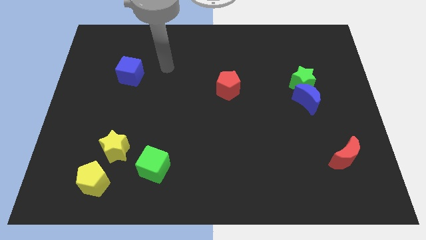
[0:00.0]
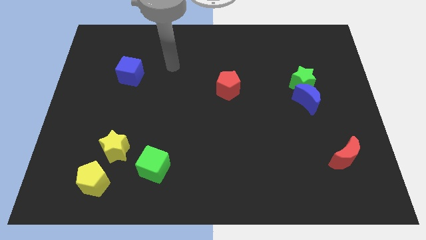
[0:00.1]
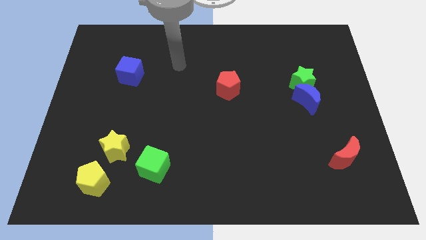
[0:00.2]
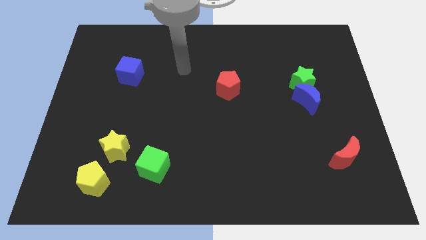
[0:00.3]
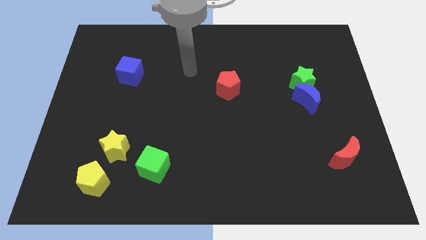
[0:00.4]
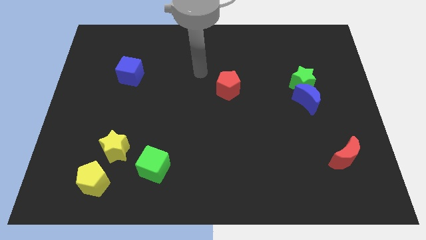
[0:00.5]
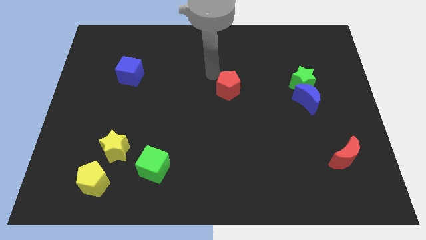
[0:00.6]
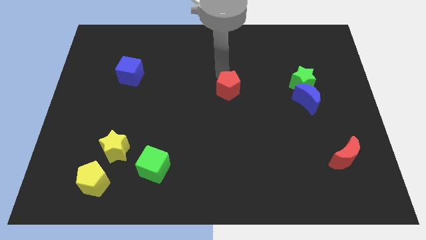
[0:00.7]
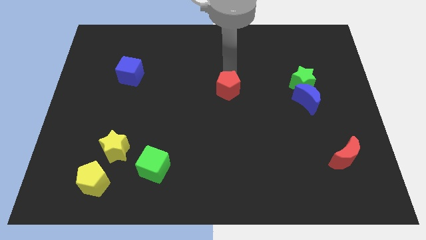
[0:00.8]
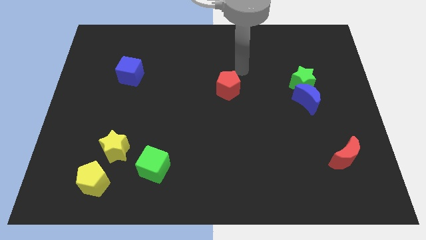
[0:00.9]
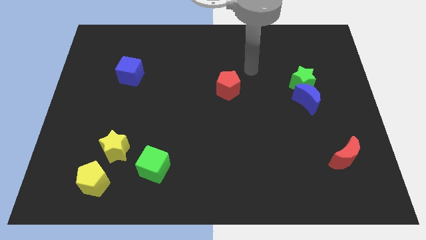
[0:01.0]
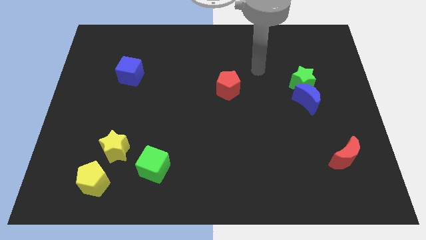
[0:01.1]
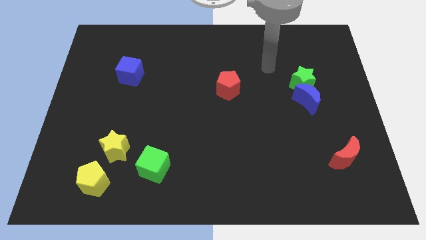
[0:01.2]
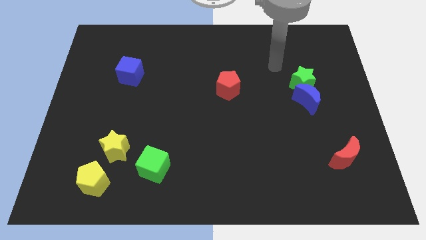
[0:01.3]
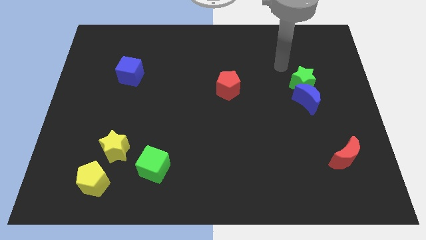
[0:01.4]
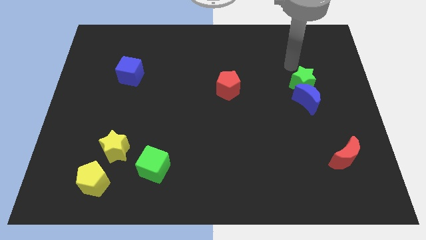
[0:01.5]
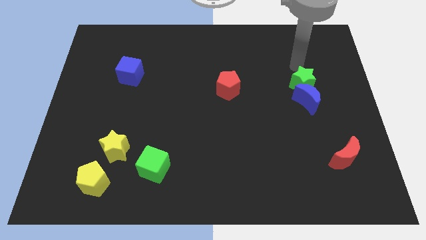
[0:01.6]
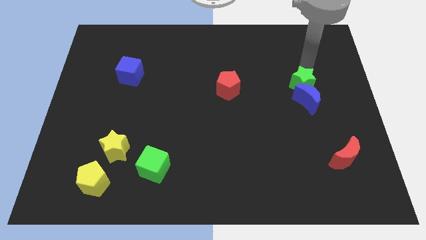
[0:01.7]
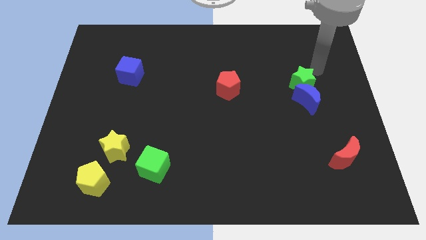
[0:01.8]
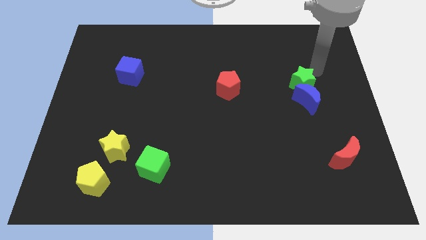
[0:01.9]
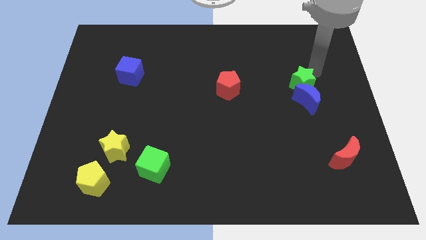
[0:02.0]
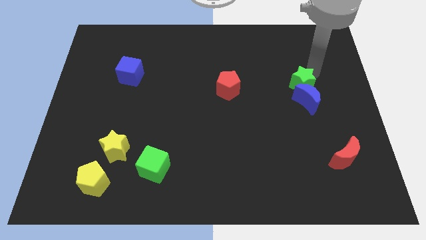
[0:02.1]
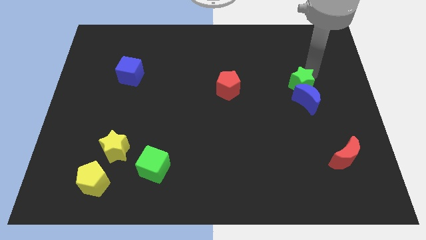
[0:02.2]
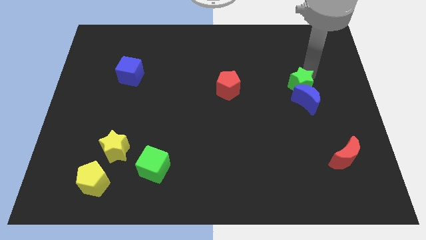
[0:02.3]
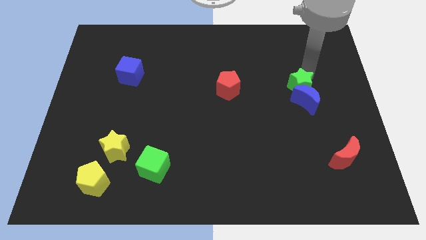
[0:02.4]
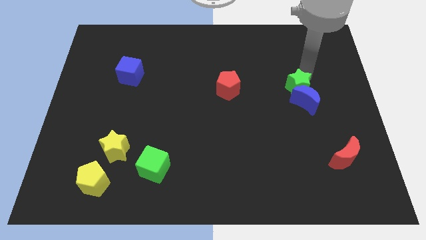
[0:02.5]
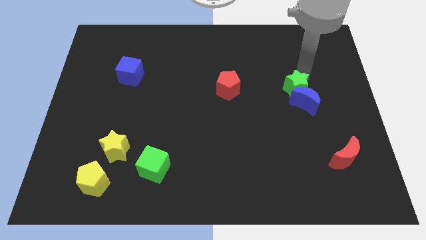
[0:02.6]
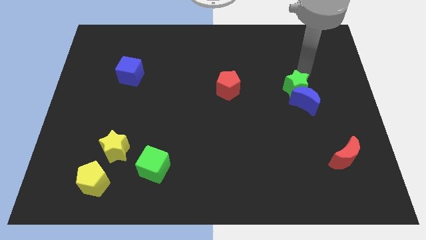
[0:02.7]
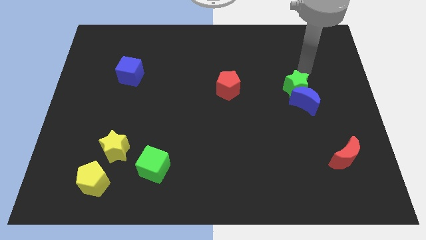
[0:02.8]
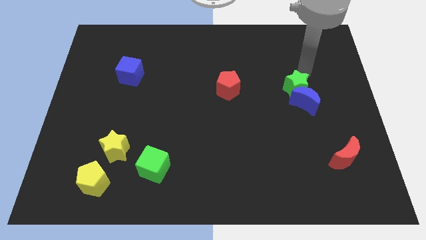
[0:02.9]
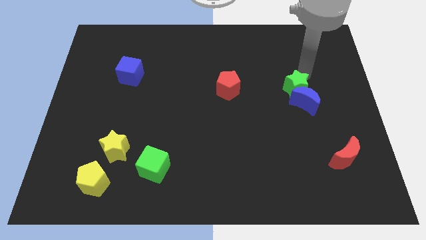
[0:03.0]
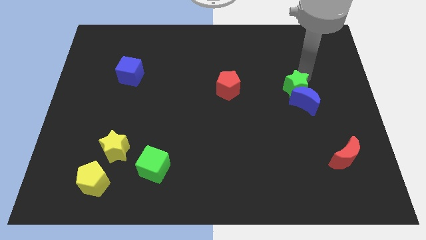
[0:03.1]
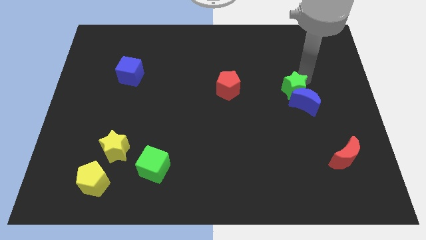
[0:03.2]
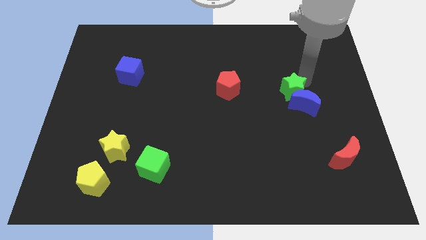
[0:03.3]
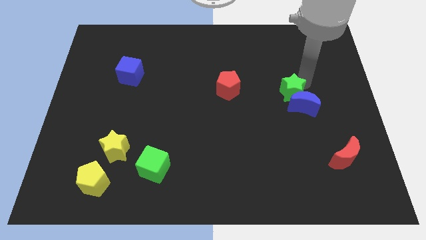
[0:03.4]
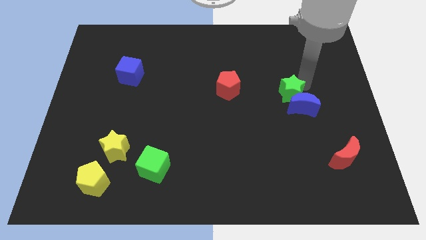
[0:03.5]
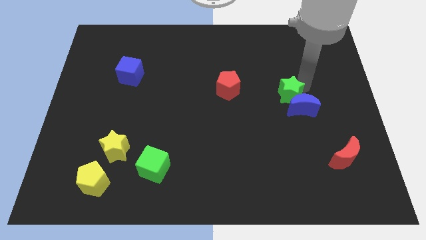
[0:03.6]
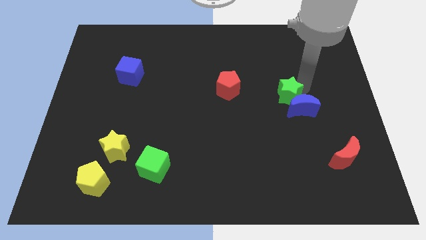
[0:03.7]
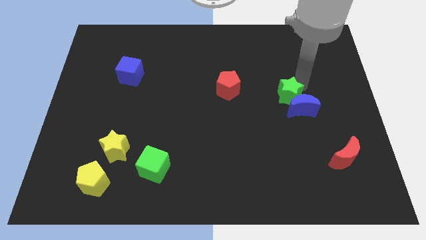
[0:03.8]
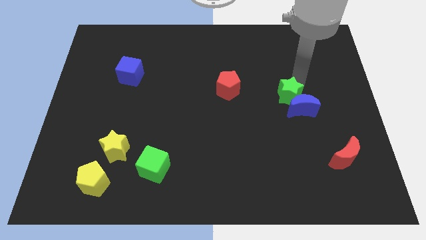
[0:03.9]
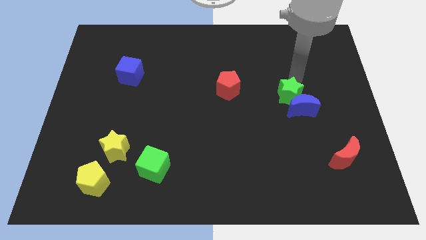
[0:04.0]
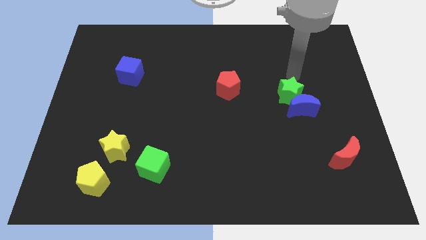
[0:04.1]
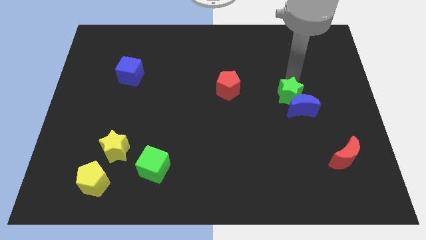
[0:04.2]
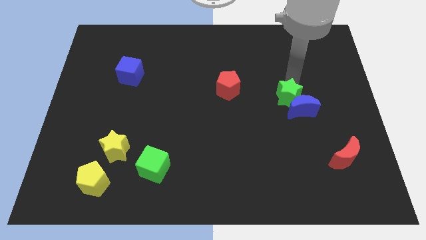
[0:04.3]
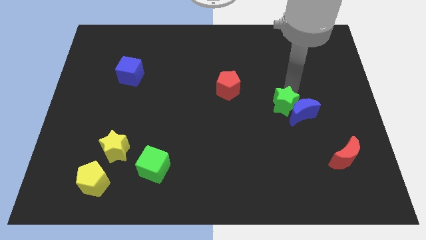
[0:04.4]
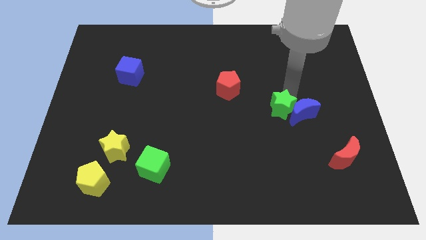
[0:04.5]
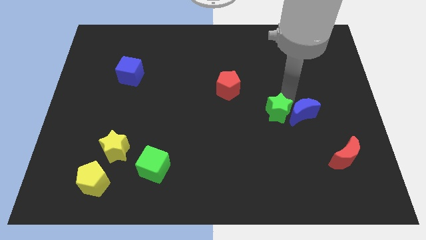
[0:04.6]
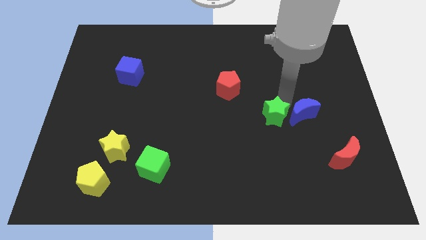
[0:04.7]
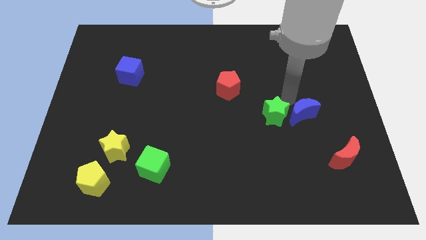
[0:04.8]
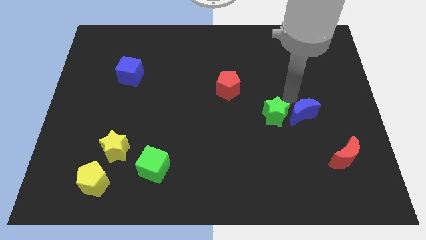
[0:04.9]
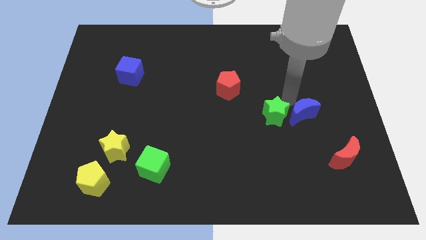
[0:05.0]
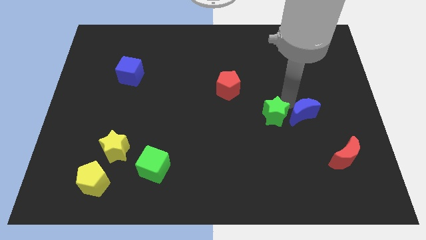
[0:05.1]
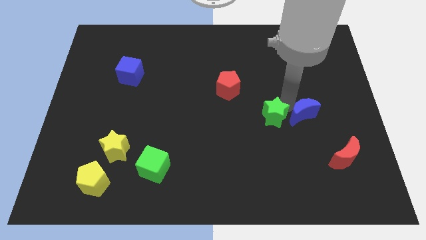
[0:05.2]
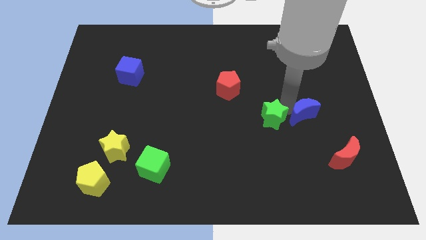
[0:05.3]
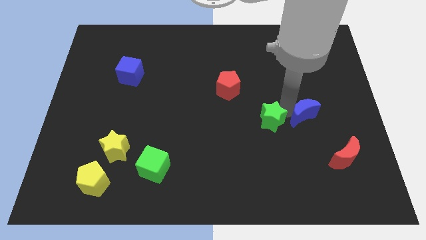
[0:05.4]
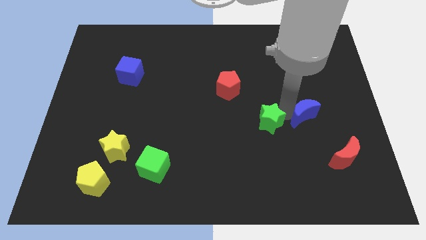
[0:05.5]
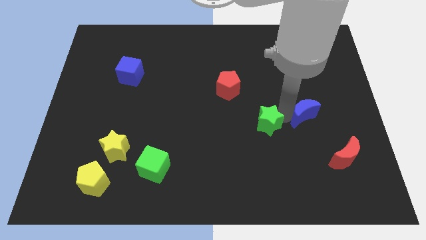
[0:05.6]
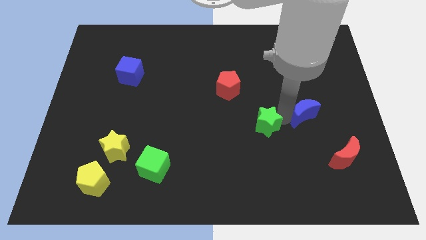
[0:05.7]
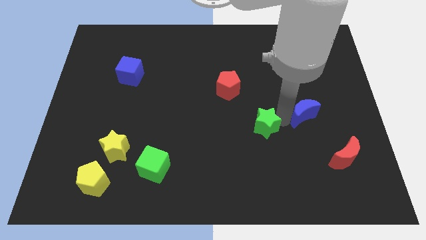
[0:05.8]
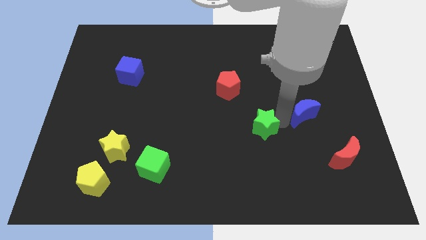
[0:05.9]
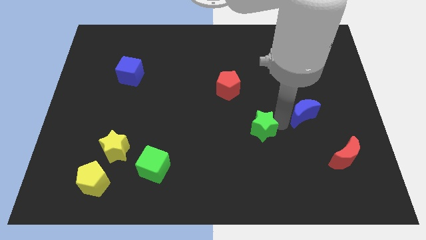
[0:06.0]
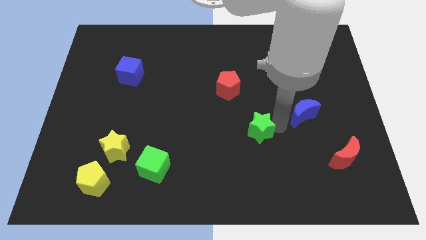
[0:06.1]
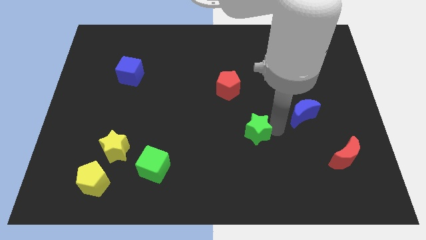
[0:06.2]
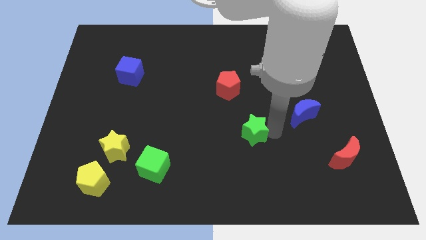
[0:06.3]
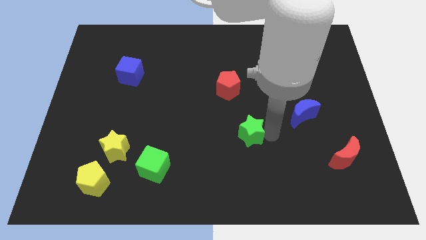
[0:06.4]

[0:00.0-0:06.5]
move the green star down and to the left diagonally

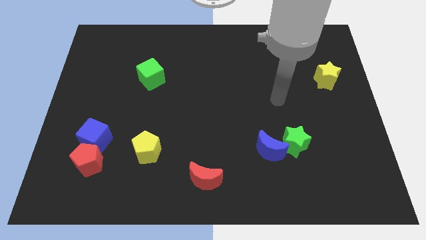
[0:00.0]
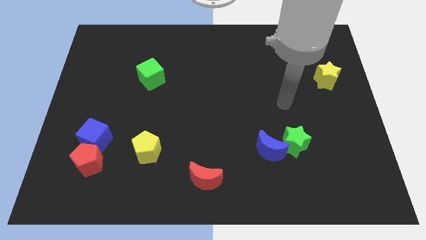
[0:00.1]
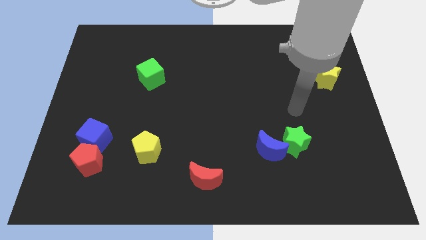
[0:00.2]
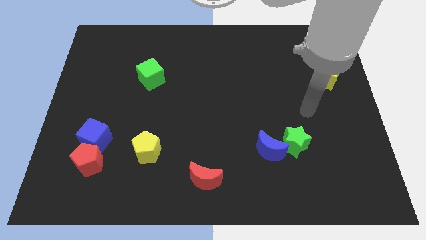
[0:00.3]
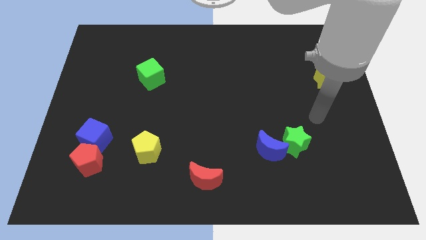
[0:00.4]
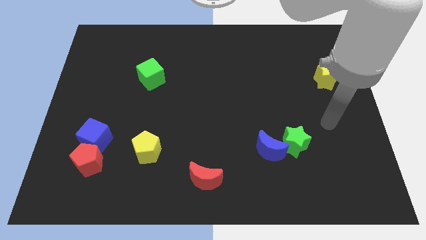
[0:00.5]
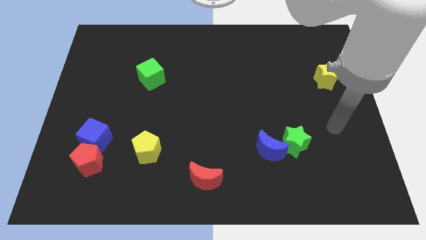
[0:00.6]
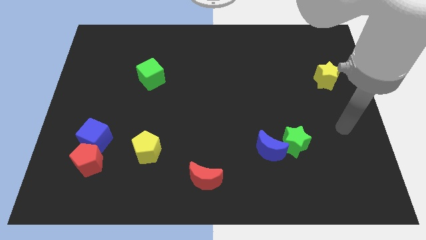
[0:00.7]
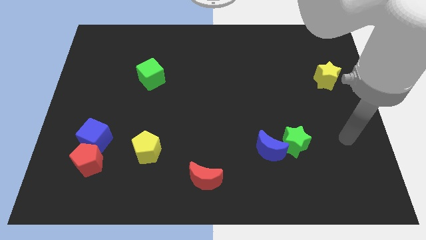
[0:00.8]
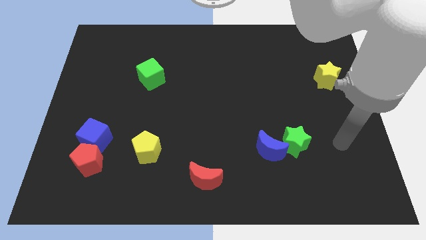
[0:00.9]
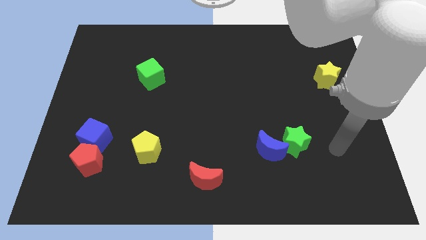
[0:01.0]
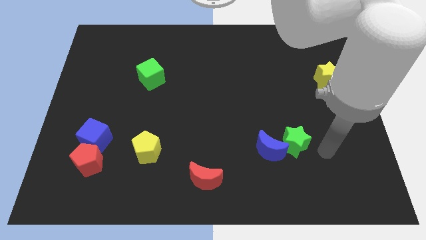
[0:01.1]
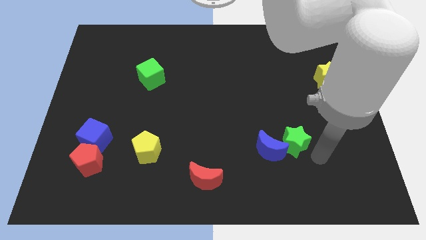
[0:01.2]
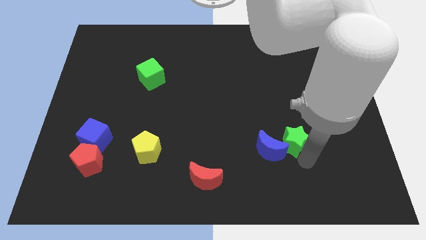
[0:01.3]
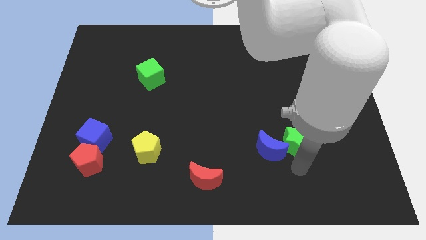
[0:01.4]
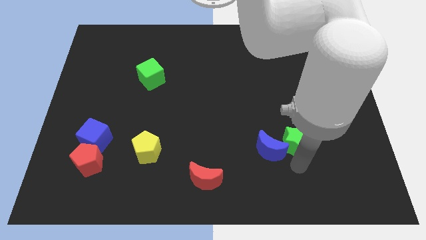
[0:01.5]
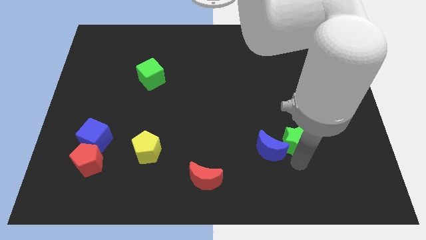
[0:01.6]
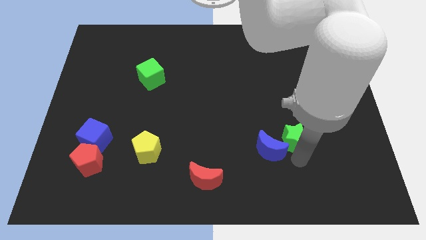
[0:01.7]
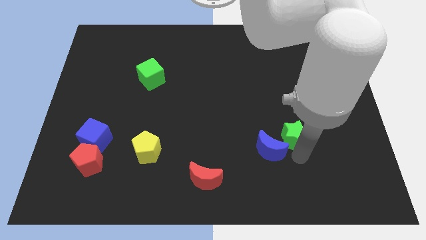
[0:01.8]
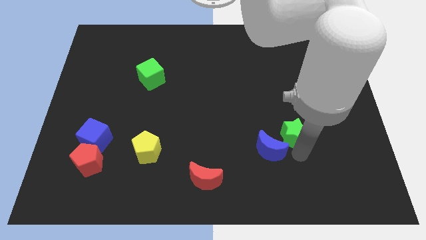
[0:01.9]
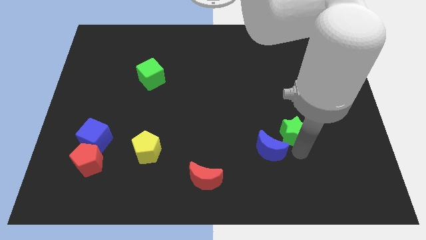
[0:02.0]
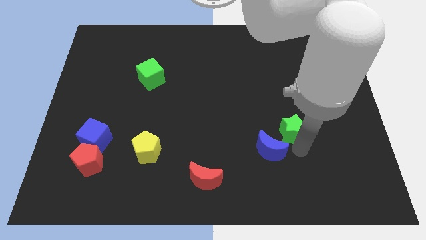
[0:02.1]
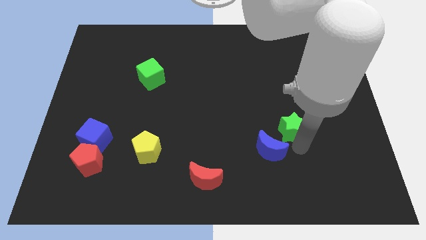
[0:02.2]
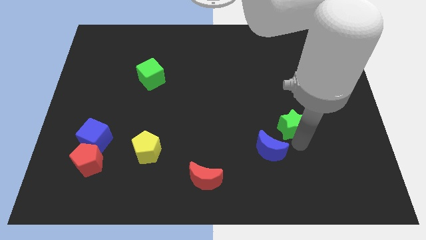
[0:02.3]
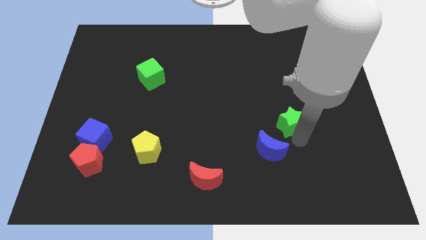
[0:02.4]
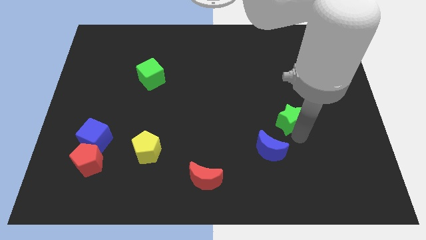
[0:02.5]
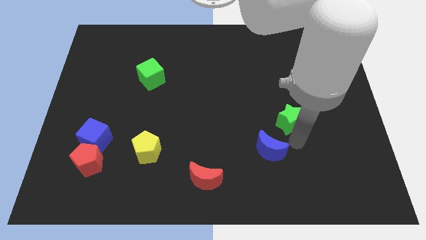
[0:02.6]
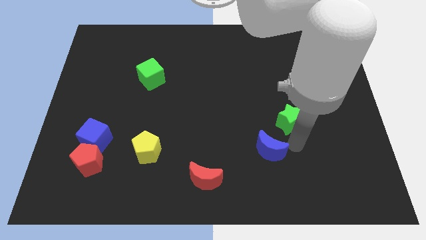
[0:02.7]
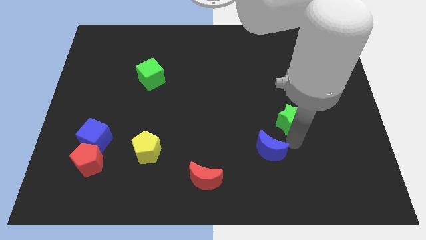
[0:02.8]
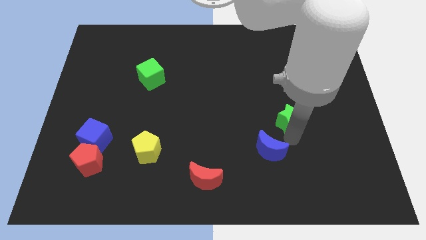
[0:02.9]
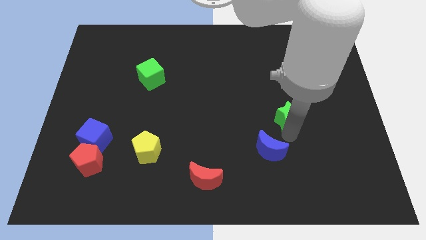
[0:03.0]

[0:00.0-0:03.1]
slide the green star up slightly
